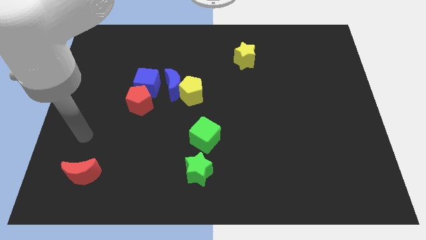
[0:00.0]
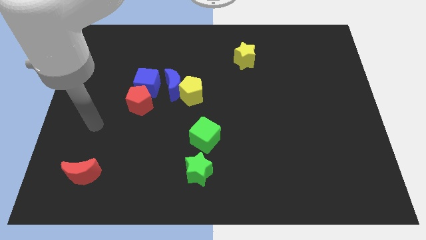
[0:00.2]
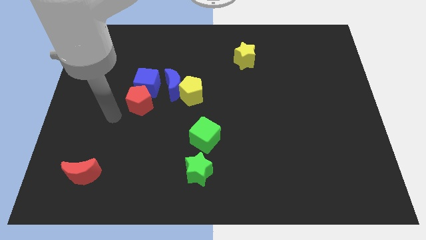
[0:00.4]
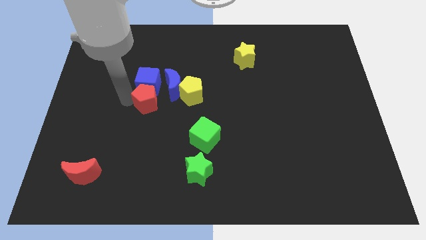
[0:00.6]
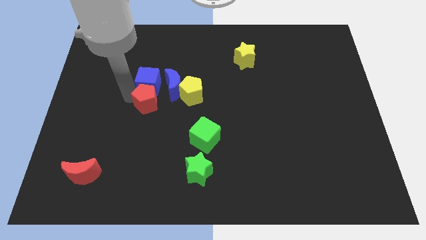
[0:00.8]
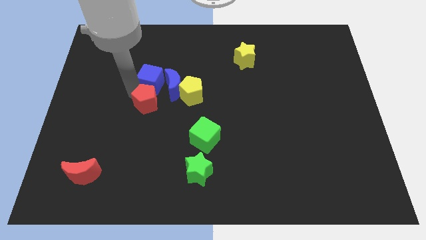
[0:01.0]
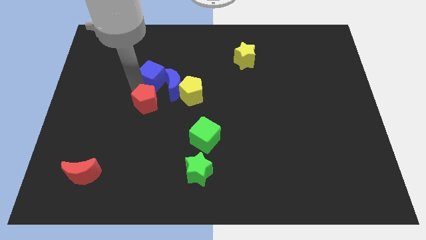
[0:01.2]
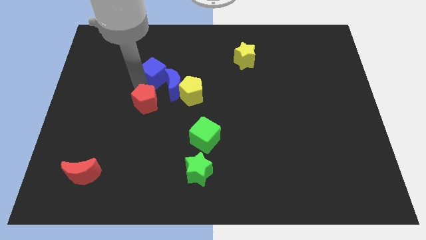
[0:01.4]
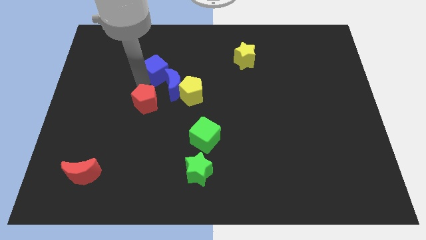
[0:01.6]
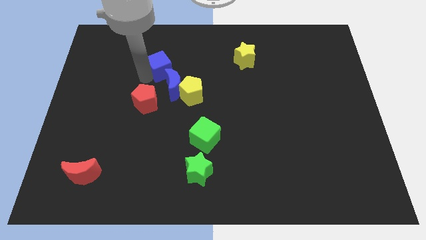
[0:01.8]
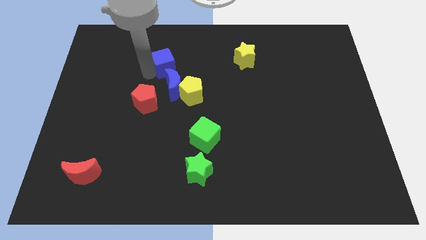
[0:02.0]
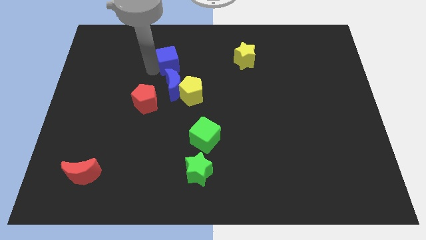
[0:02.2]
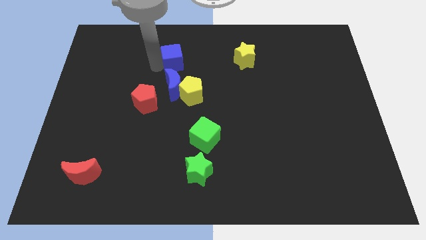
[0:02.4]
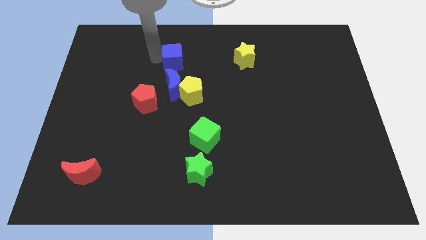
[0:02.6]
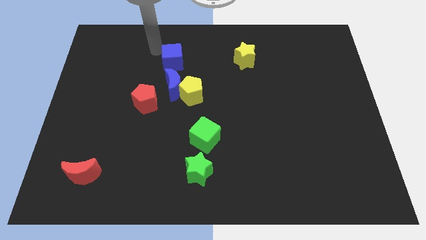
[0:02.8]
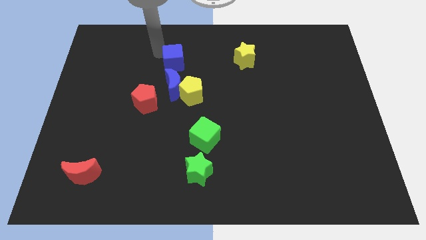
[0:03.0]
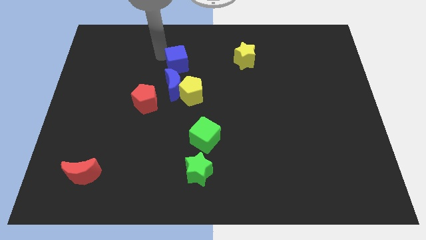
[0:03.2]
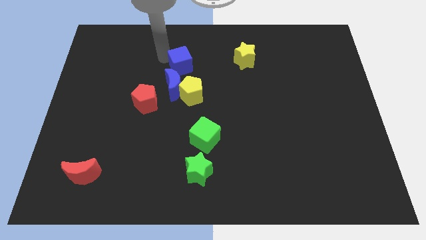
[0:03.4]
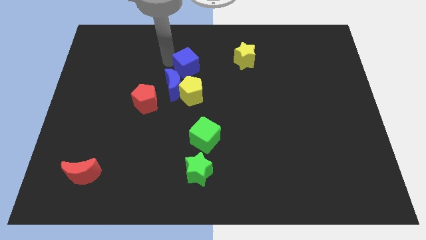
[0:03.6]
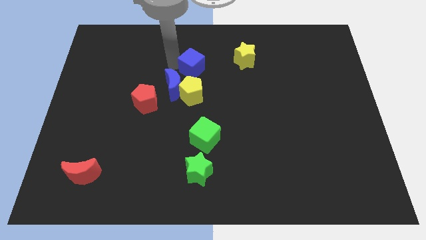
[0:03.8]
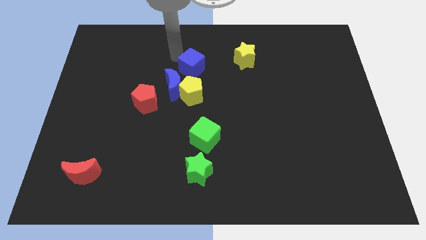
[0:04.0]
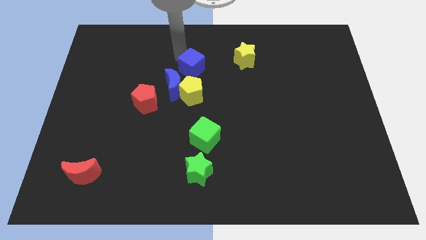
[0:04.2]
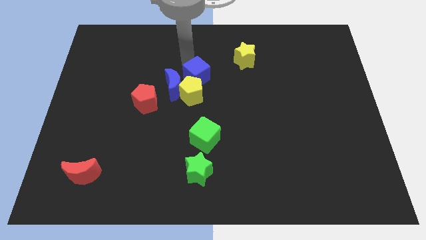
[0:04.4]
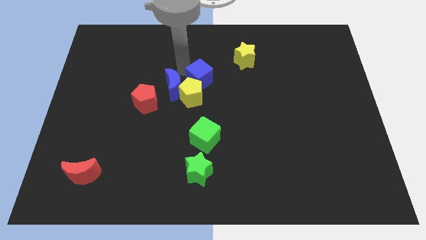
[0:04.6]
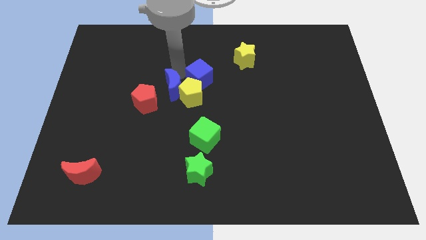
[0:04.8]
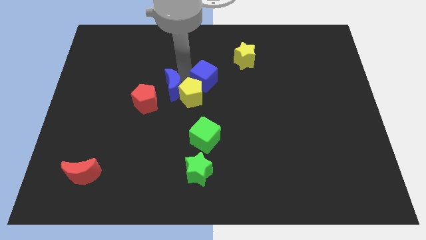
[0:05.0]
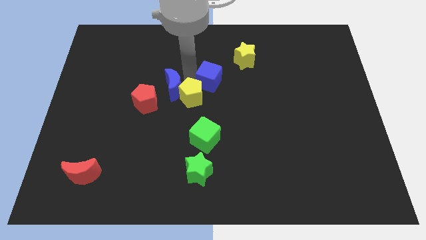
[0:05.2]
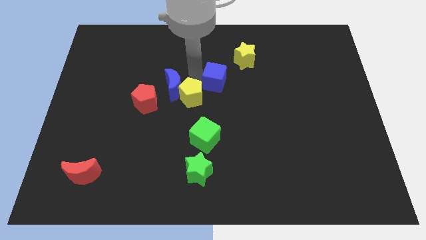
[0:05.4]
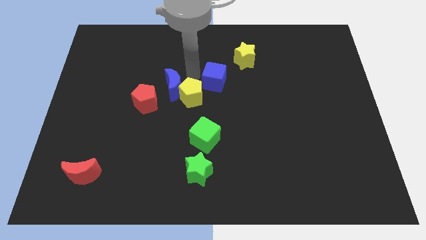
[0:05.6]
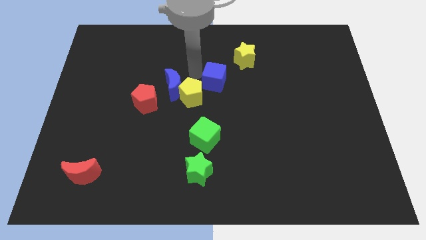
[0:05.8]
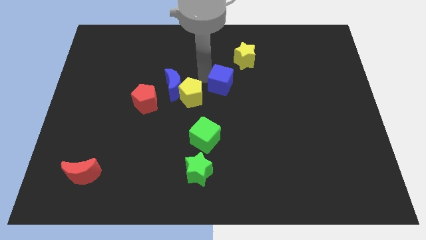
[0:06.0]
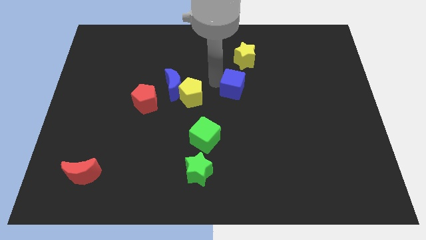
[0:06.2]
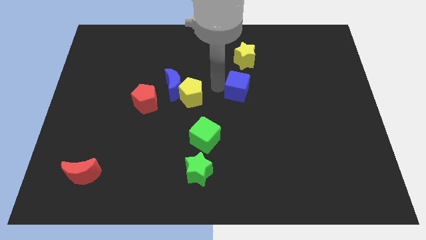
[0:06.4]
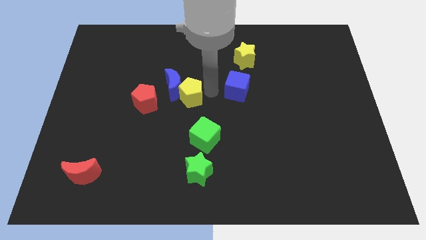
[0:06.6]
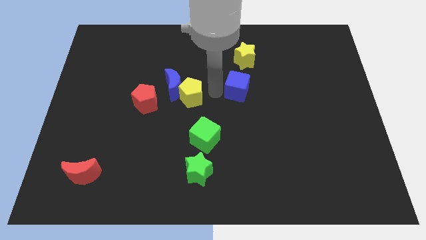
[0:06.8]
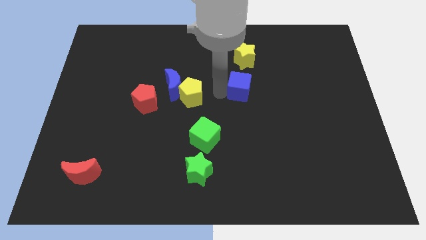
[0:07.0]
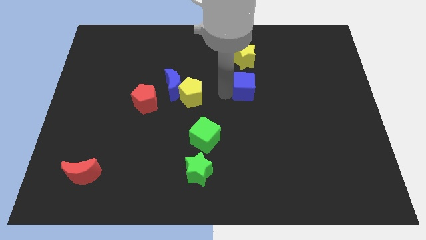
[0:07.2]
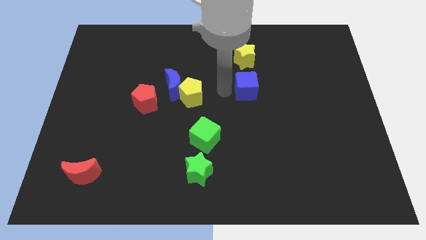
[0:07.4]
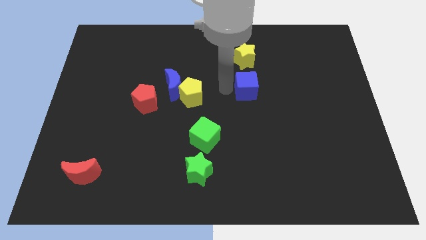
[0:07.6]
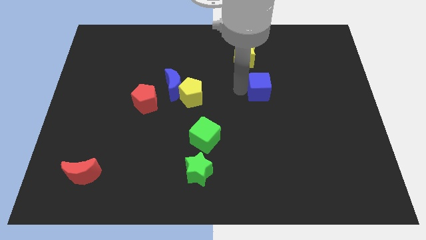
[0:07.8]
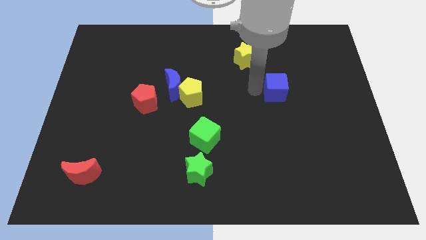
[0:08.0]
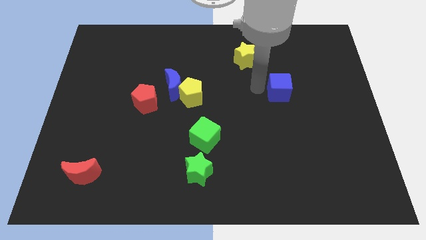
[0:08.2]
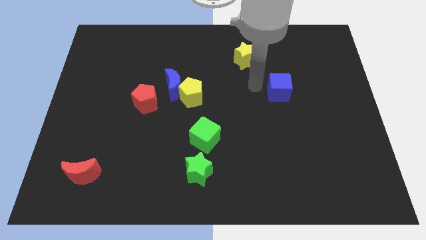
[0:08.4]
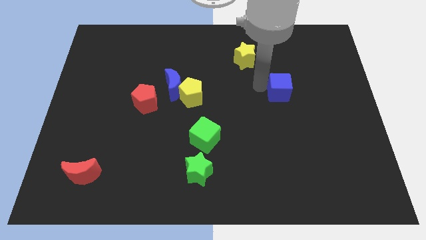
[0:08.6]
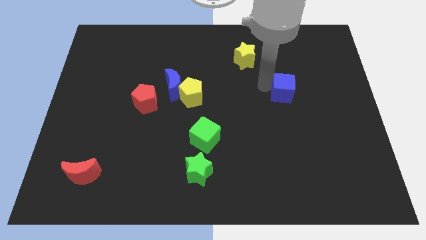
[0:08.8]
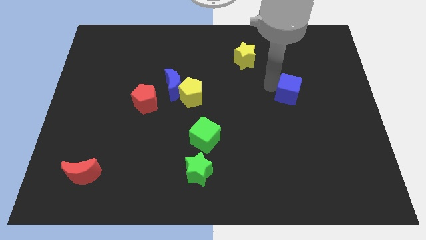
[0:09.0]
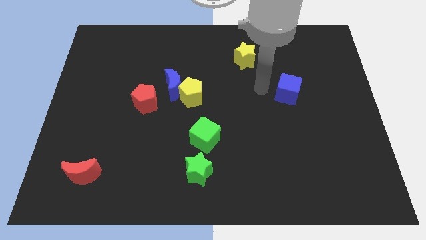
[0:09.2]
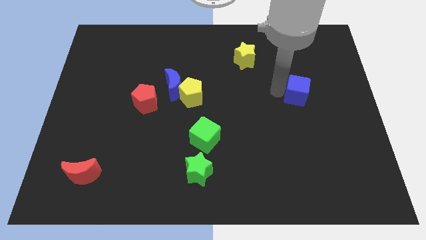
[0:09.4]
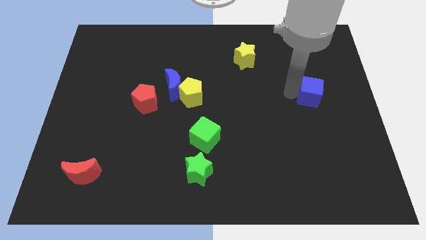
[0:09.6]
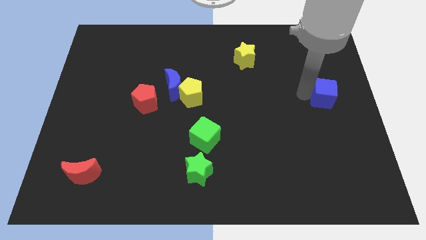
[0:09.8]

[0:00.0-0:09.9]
put the blue cube to the right side

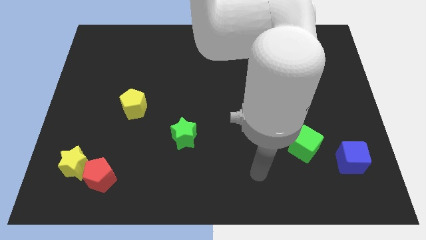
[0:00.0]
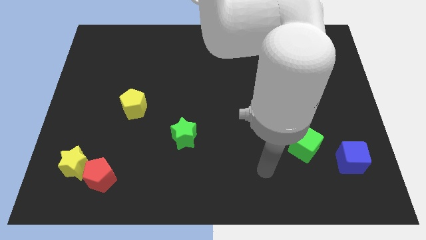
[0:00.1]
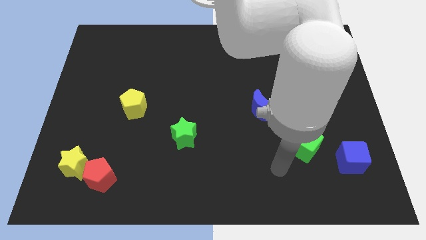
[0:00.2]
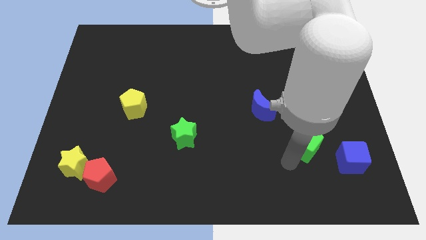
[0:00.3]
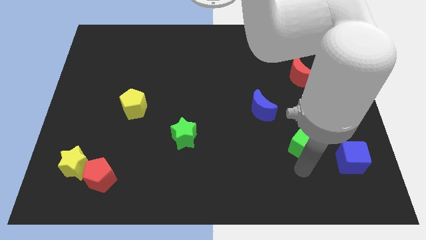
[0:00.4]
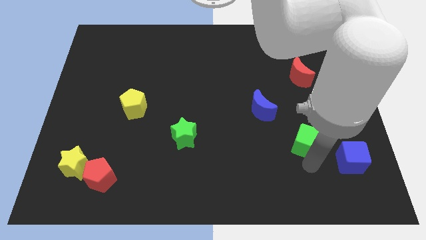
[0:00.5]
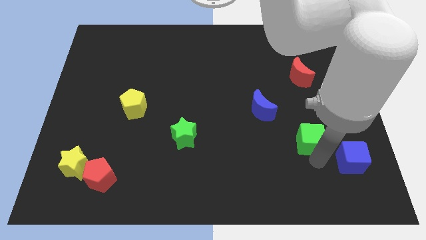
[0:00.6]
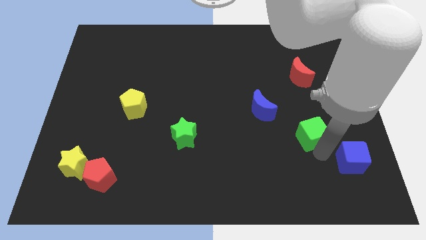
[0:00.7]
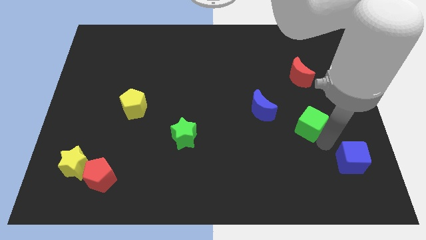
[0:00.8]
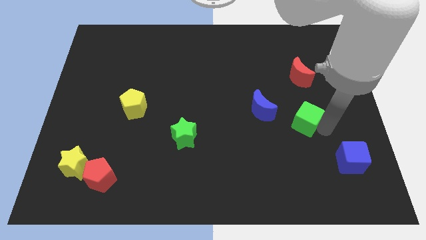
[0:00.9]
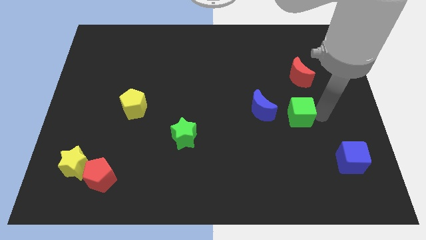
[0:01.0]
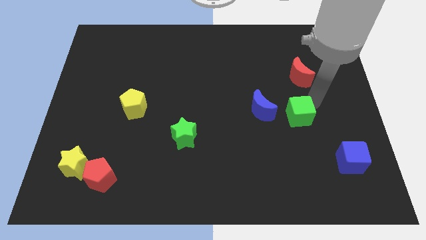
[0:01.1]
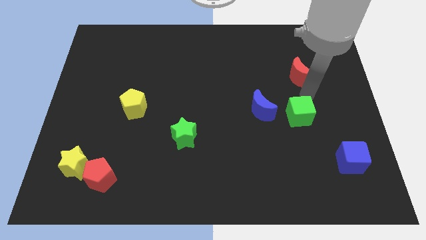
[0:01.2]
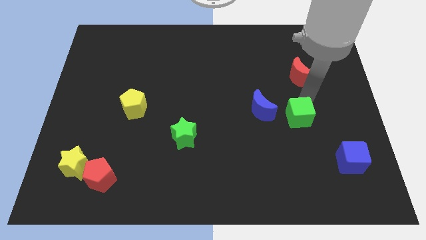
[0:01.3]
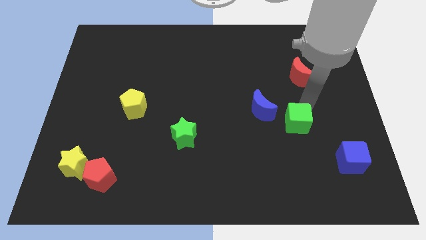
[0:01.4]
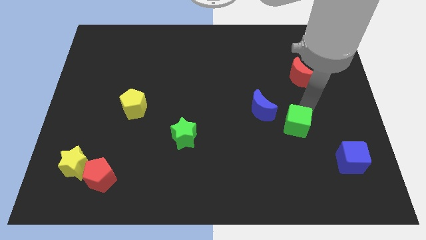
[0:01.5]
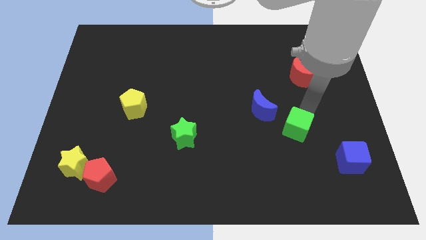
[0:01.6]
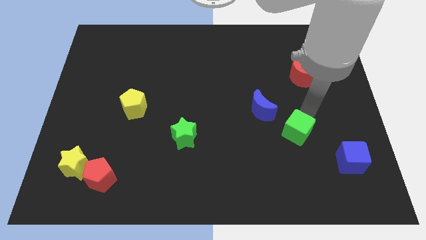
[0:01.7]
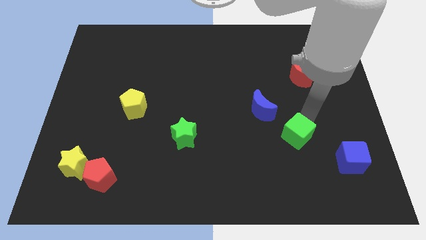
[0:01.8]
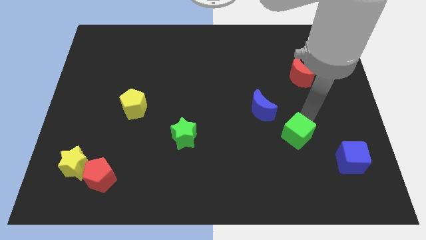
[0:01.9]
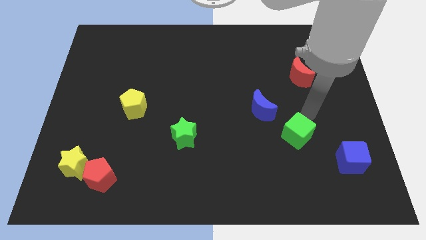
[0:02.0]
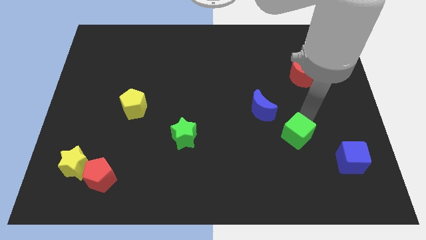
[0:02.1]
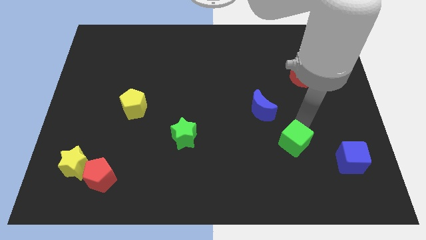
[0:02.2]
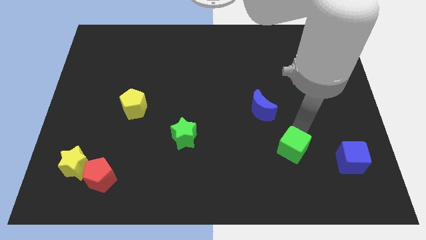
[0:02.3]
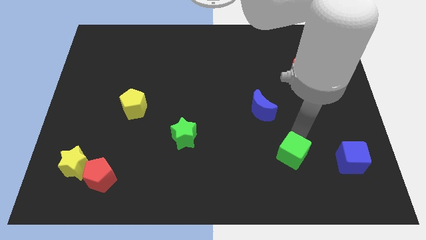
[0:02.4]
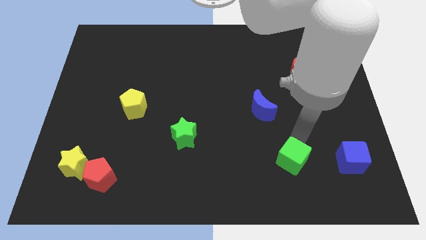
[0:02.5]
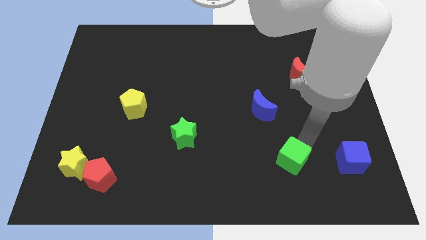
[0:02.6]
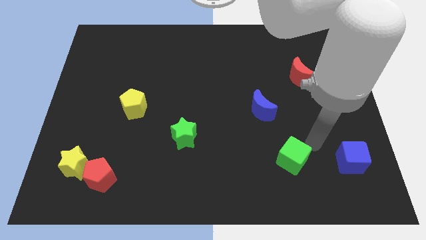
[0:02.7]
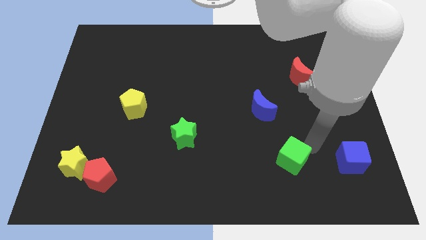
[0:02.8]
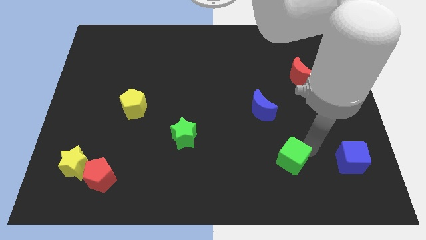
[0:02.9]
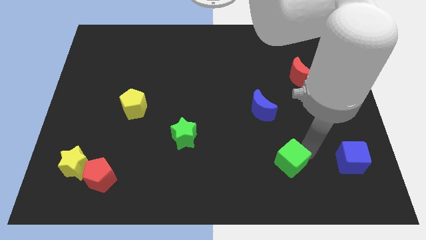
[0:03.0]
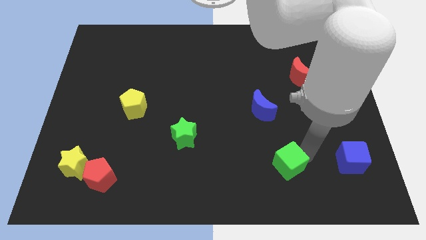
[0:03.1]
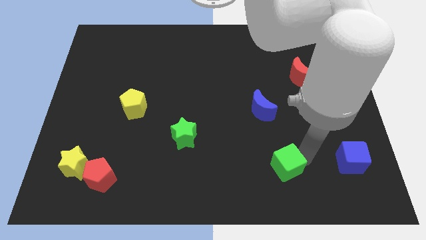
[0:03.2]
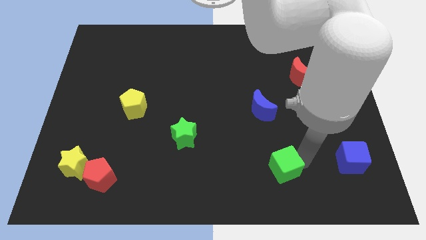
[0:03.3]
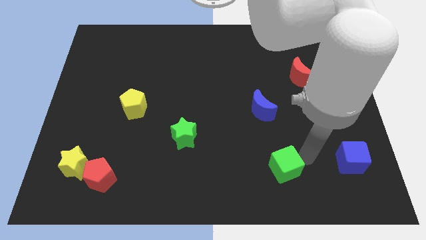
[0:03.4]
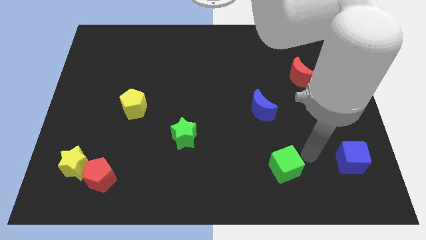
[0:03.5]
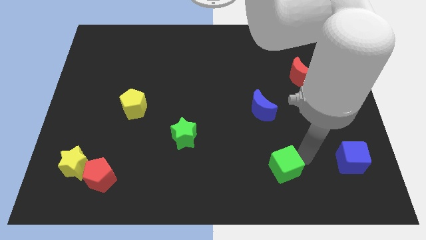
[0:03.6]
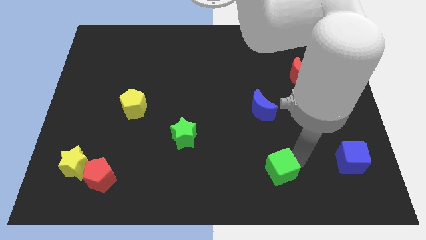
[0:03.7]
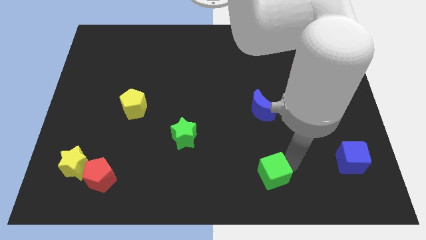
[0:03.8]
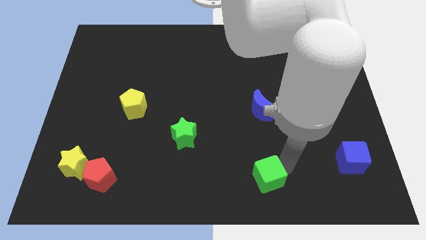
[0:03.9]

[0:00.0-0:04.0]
put the green cube to the bottom side
